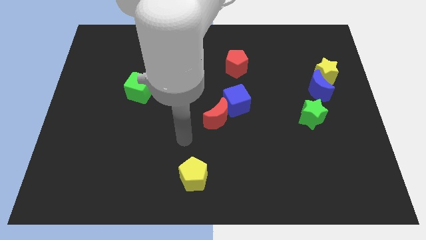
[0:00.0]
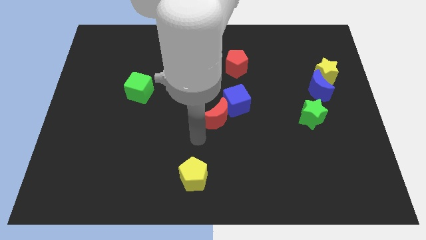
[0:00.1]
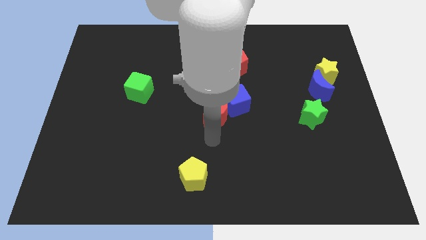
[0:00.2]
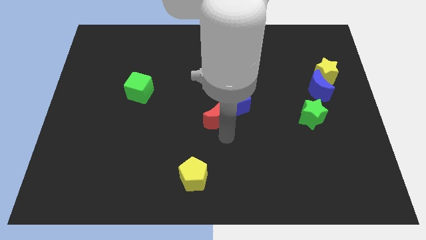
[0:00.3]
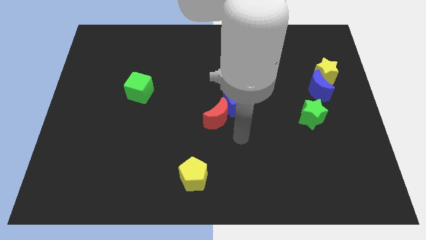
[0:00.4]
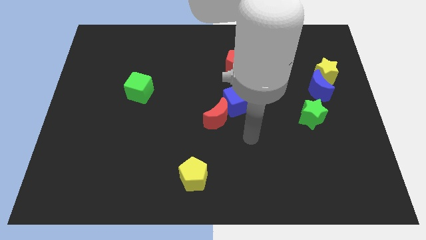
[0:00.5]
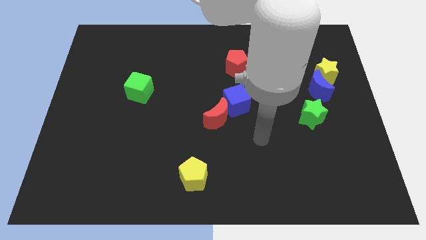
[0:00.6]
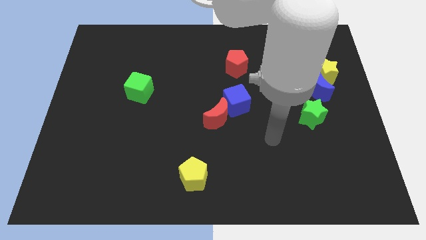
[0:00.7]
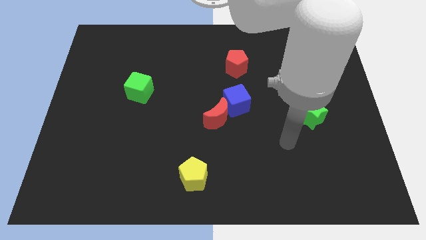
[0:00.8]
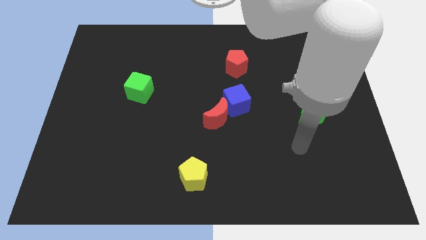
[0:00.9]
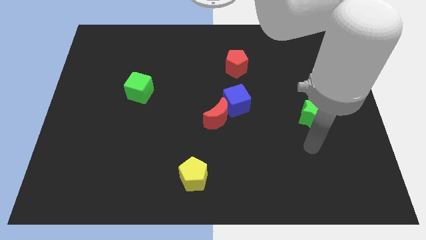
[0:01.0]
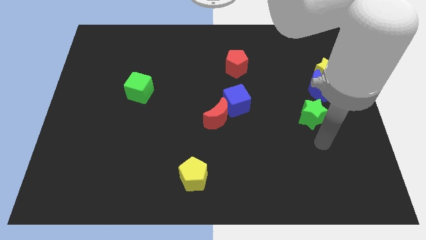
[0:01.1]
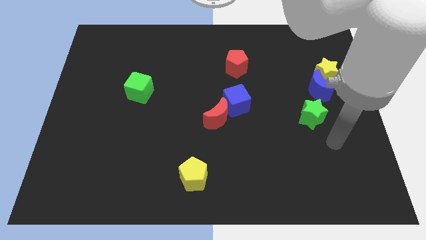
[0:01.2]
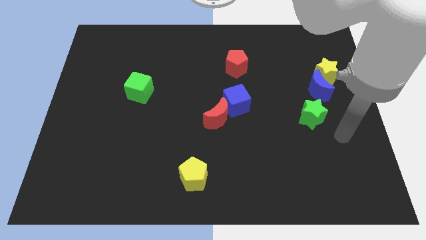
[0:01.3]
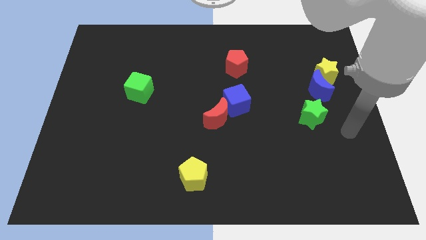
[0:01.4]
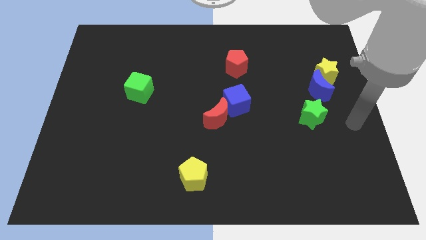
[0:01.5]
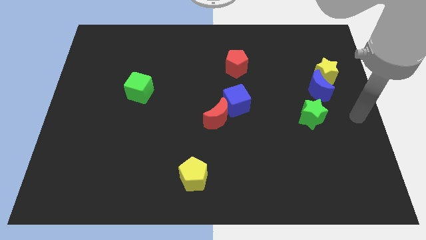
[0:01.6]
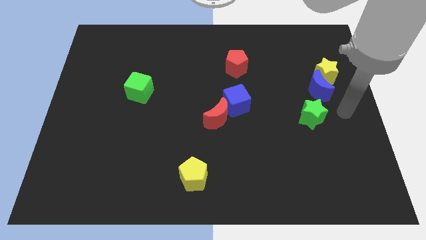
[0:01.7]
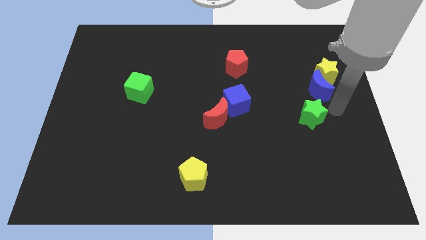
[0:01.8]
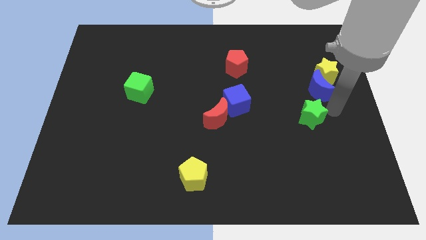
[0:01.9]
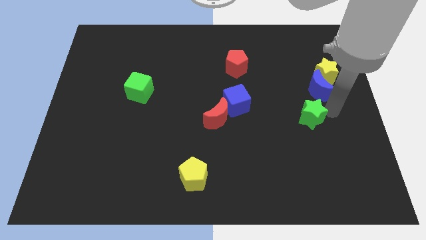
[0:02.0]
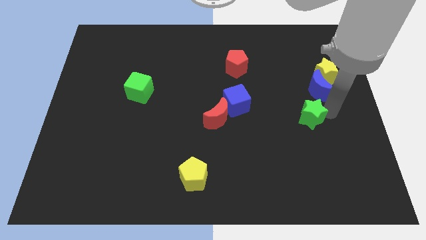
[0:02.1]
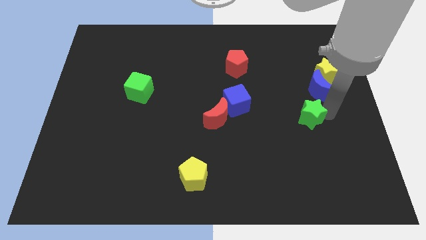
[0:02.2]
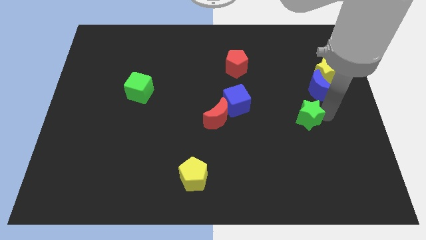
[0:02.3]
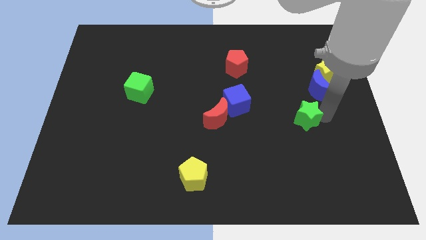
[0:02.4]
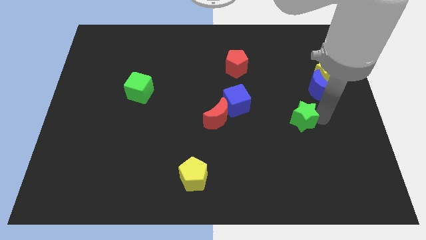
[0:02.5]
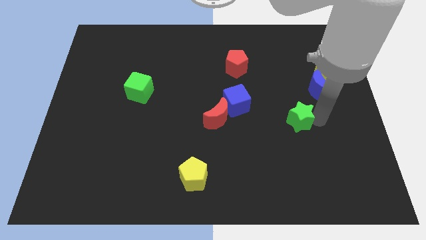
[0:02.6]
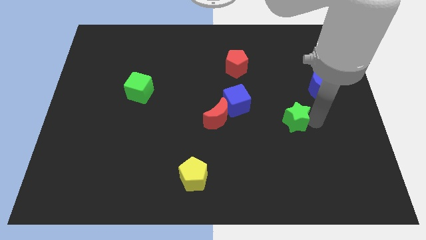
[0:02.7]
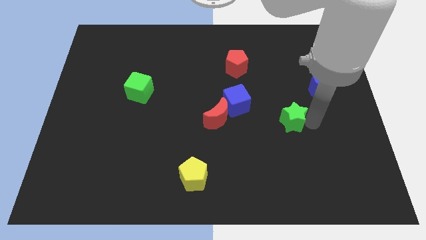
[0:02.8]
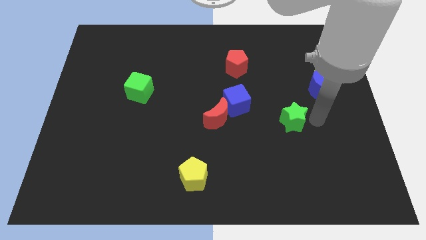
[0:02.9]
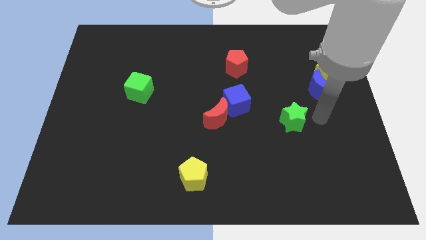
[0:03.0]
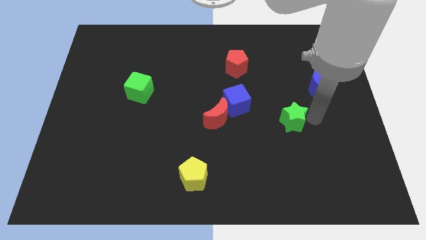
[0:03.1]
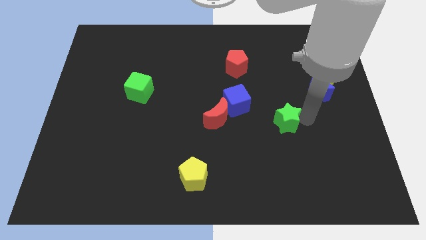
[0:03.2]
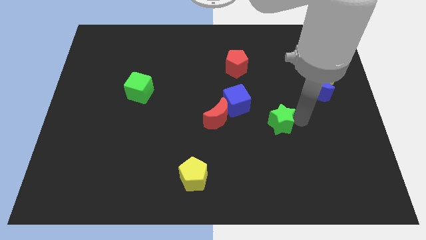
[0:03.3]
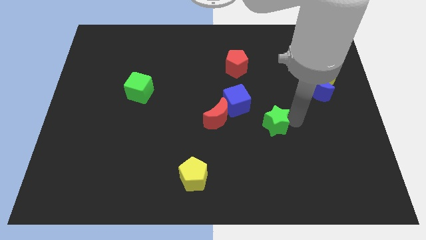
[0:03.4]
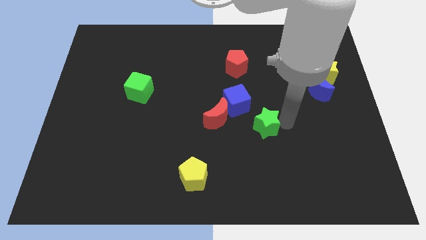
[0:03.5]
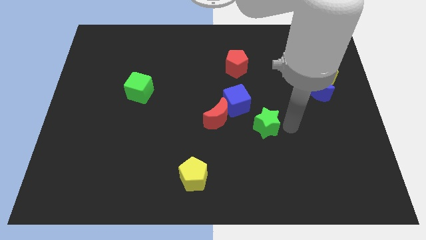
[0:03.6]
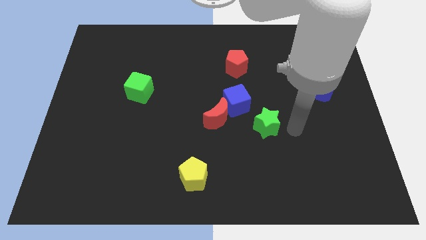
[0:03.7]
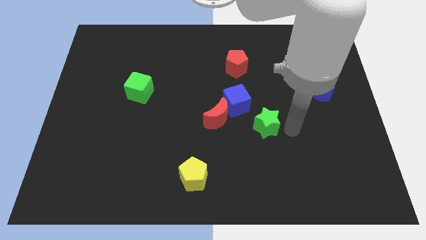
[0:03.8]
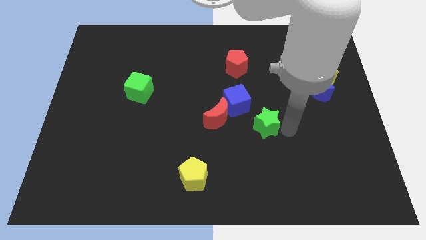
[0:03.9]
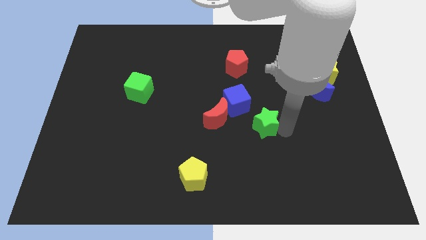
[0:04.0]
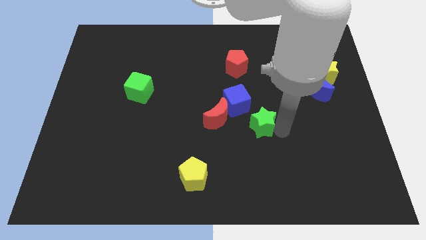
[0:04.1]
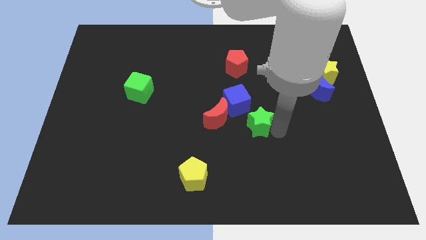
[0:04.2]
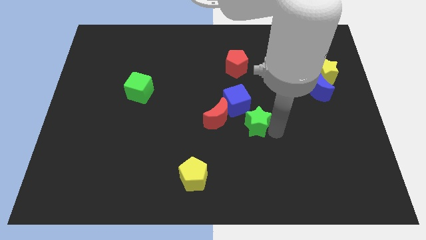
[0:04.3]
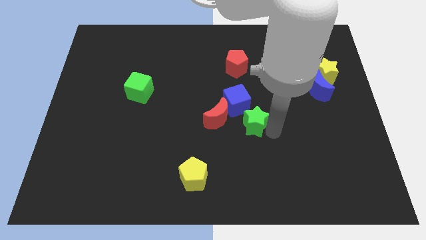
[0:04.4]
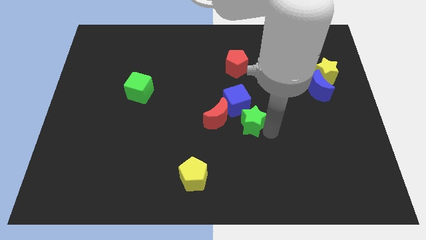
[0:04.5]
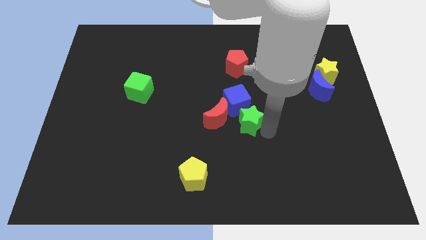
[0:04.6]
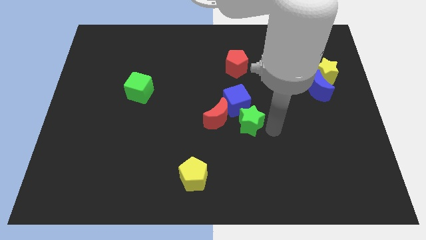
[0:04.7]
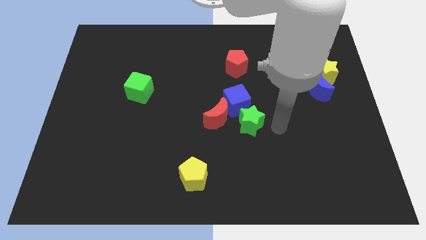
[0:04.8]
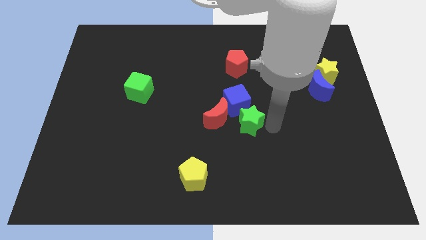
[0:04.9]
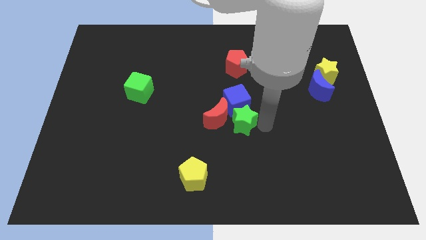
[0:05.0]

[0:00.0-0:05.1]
slide the green star close to the red moon

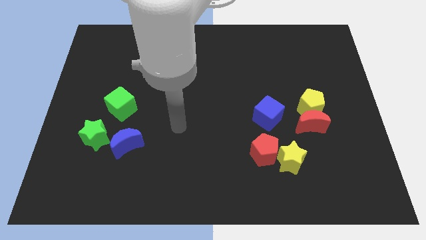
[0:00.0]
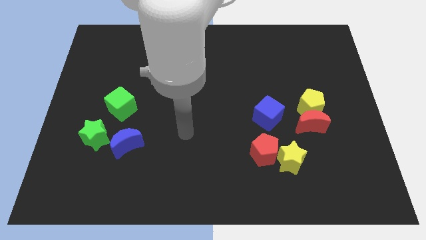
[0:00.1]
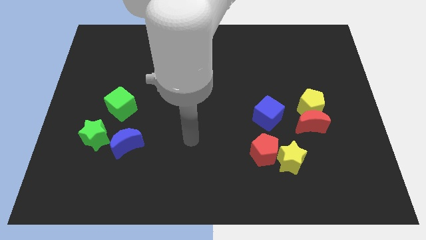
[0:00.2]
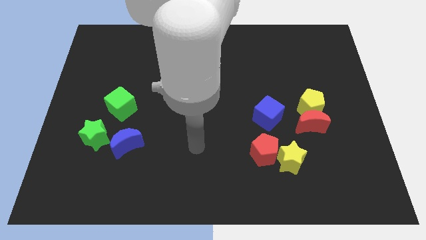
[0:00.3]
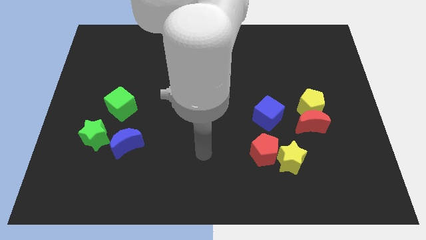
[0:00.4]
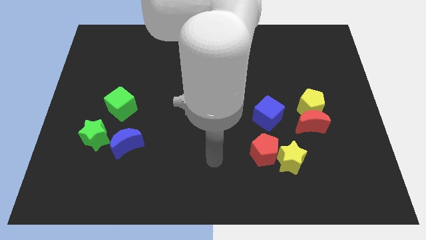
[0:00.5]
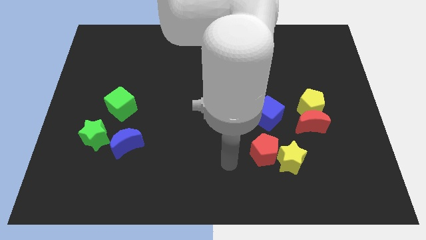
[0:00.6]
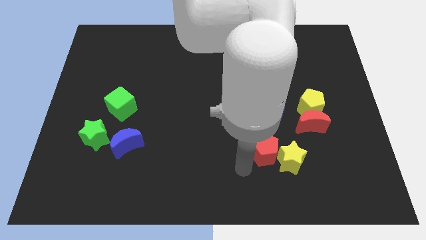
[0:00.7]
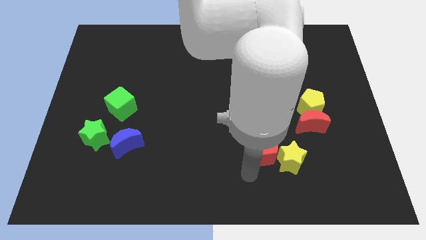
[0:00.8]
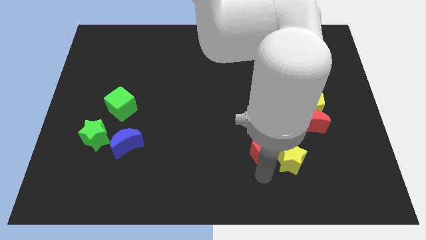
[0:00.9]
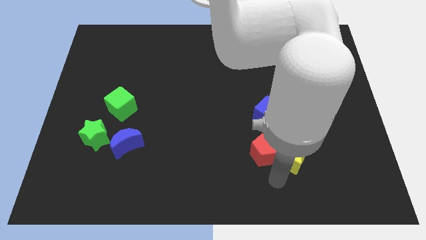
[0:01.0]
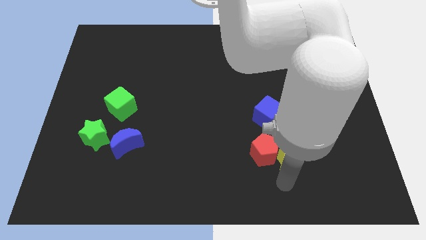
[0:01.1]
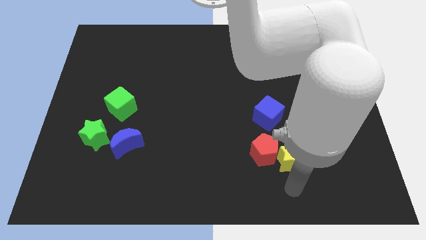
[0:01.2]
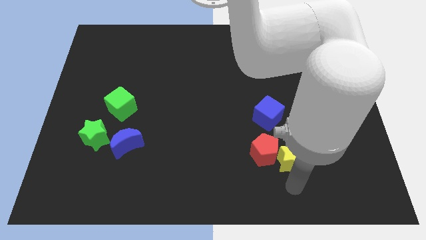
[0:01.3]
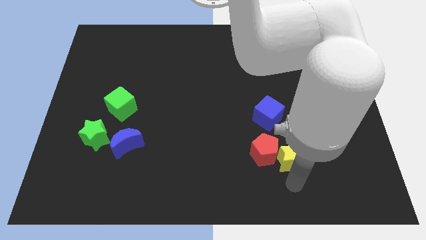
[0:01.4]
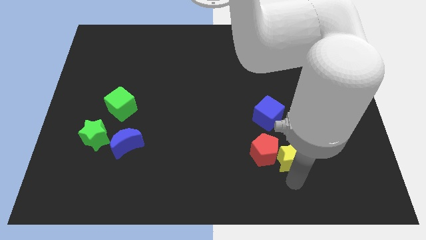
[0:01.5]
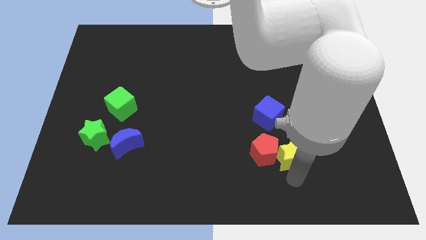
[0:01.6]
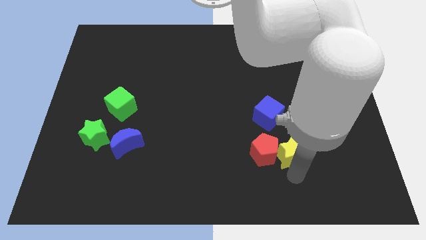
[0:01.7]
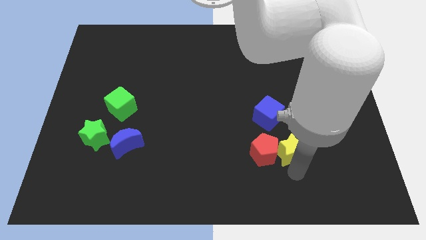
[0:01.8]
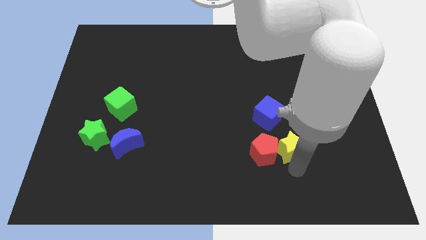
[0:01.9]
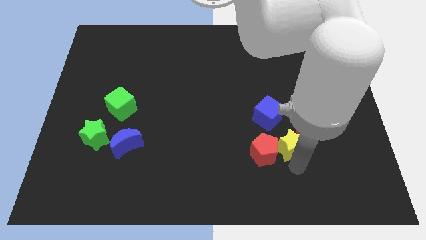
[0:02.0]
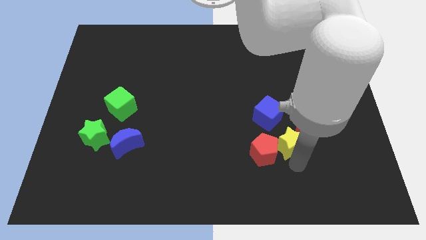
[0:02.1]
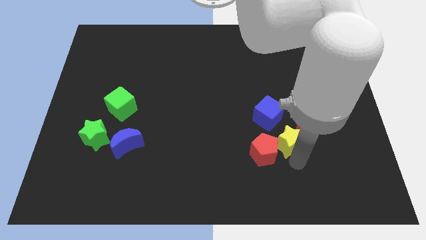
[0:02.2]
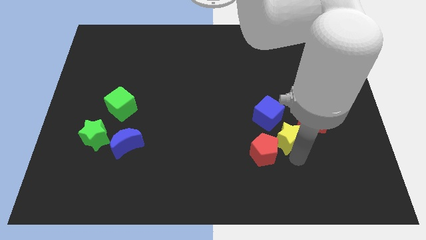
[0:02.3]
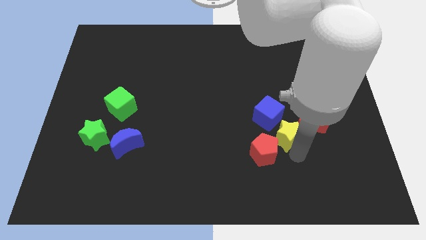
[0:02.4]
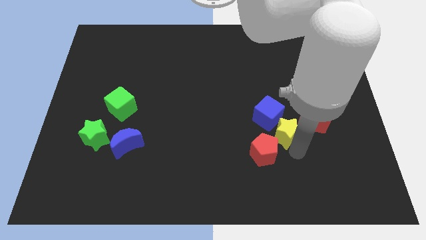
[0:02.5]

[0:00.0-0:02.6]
move the yellow star next to the blue cube
